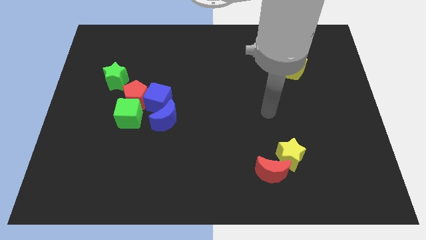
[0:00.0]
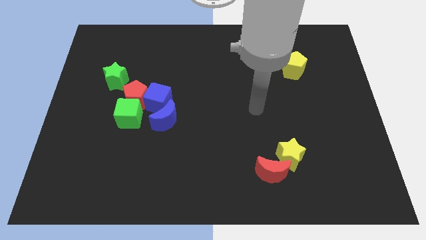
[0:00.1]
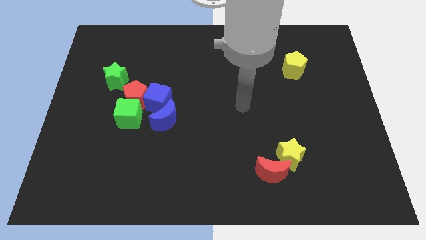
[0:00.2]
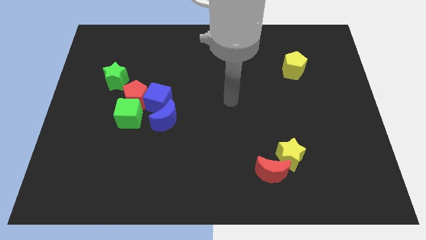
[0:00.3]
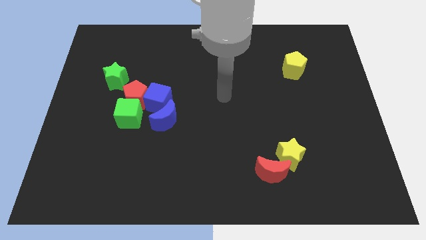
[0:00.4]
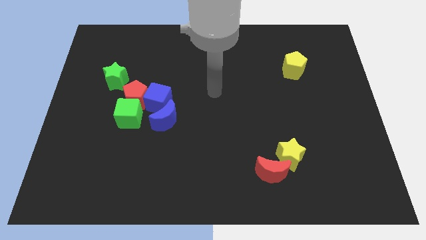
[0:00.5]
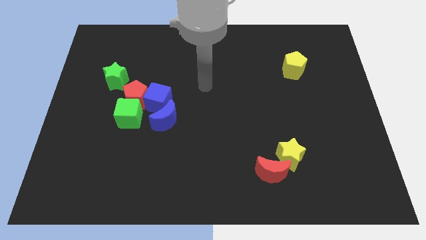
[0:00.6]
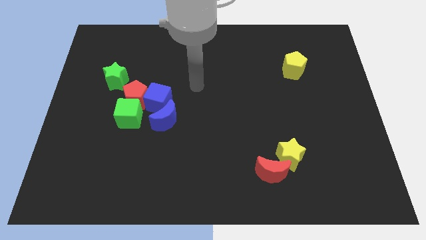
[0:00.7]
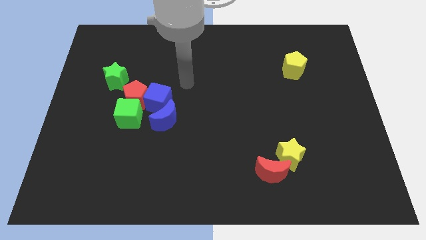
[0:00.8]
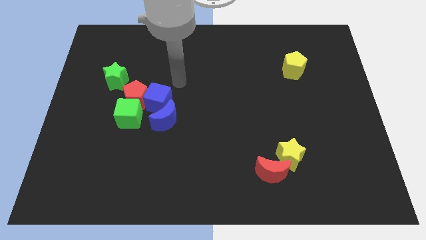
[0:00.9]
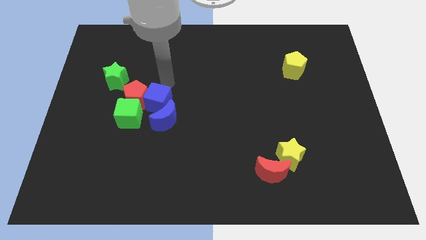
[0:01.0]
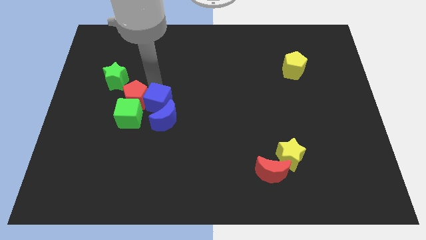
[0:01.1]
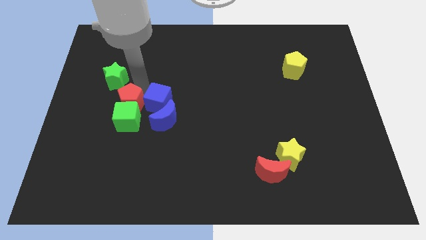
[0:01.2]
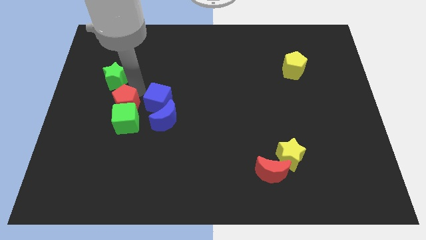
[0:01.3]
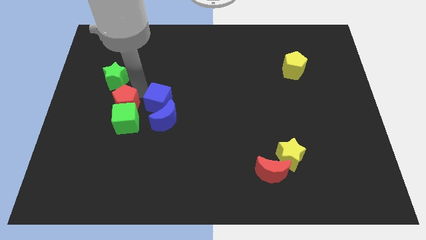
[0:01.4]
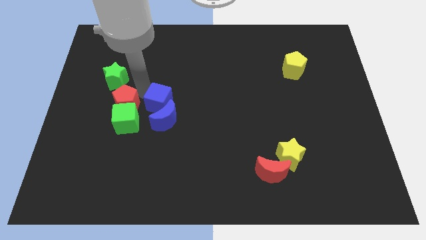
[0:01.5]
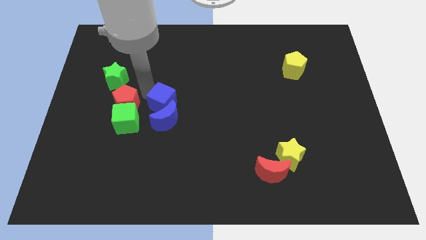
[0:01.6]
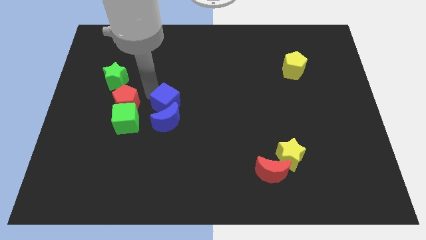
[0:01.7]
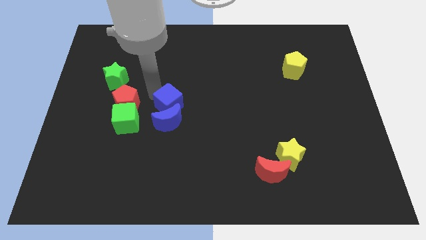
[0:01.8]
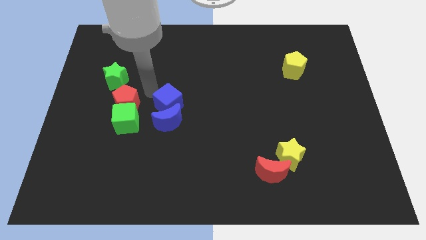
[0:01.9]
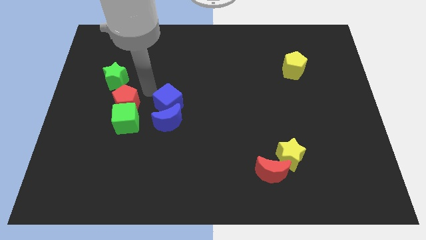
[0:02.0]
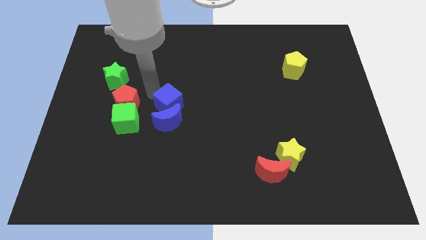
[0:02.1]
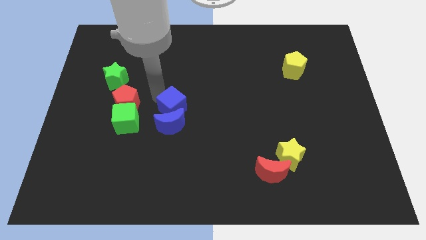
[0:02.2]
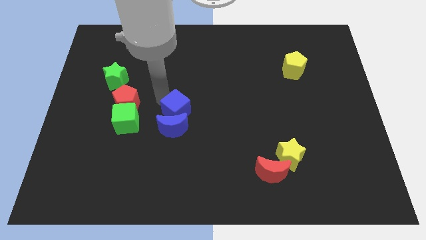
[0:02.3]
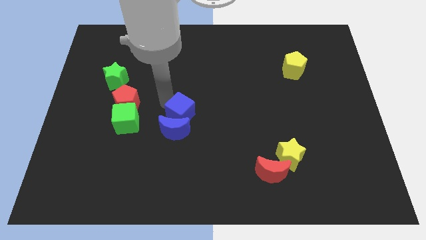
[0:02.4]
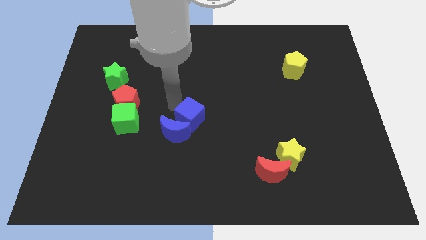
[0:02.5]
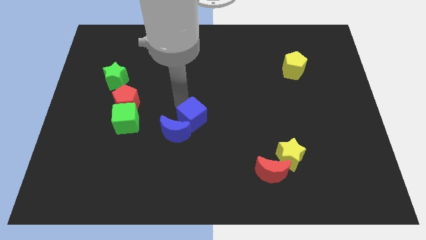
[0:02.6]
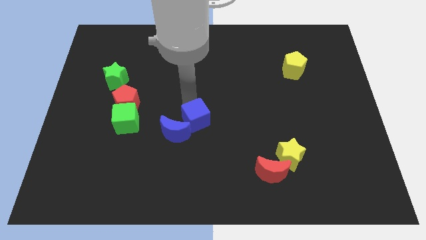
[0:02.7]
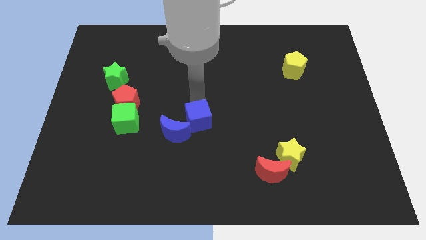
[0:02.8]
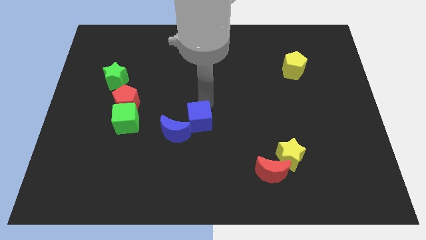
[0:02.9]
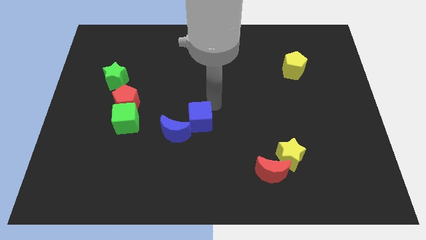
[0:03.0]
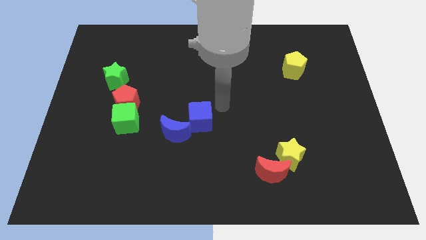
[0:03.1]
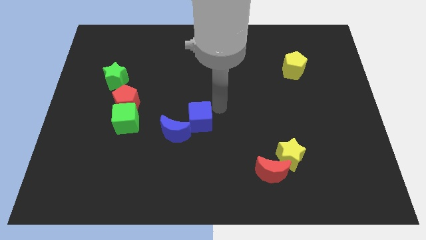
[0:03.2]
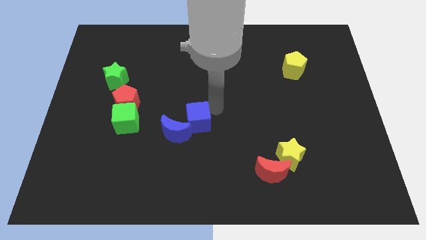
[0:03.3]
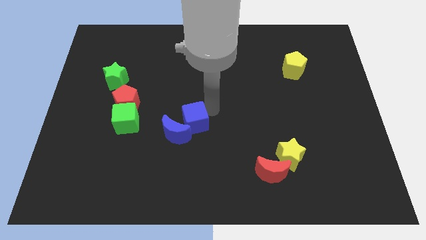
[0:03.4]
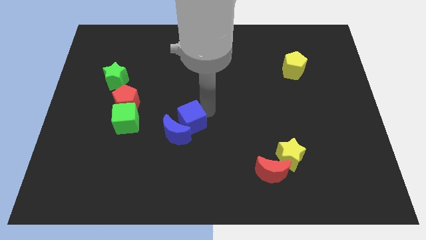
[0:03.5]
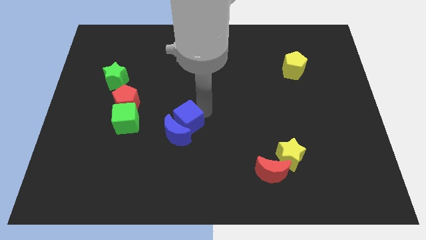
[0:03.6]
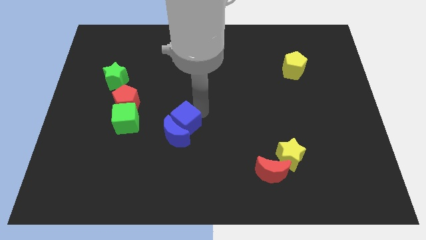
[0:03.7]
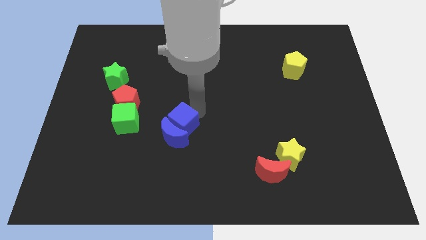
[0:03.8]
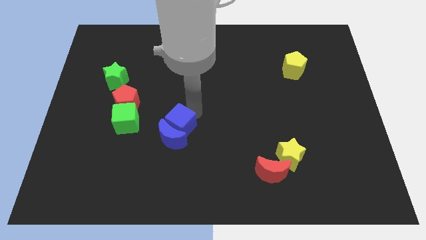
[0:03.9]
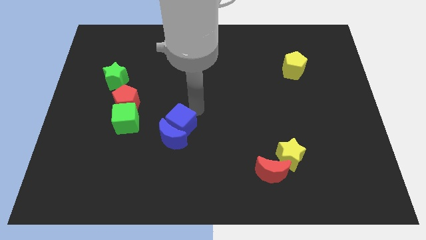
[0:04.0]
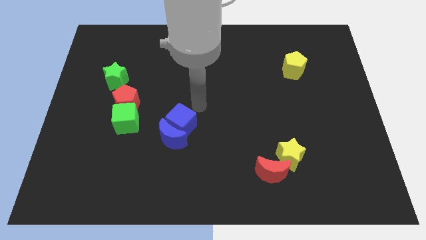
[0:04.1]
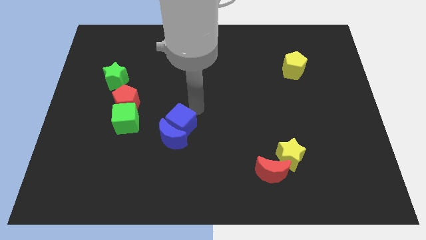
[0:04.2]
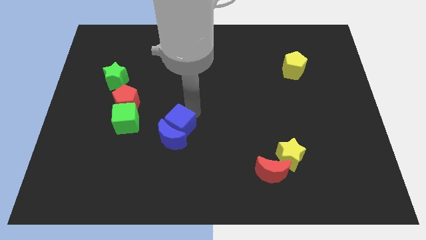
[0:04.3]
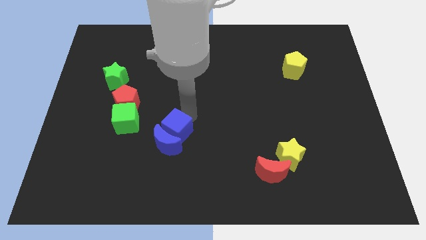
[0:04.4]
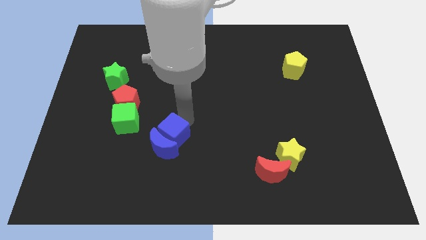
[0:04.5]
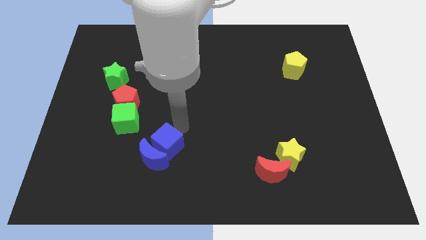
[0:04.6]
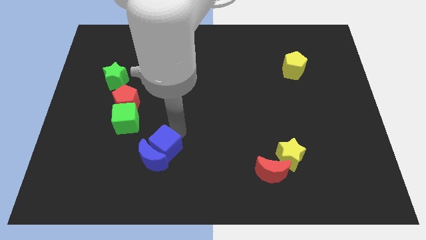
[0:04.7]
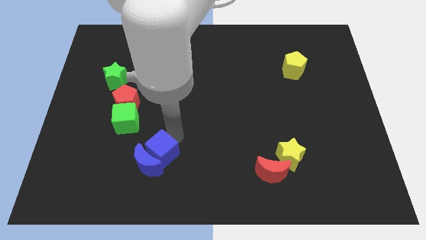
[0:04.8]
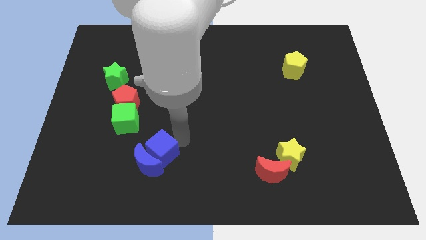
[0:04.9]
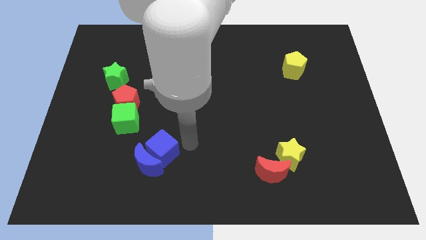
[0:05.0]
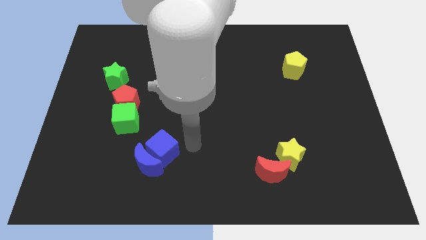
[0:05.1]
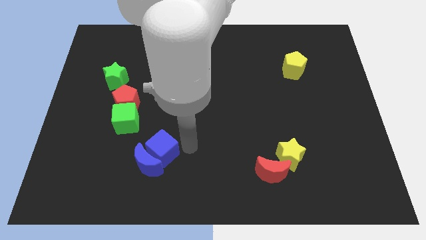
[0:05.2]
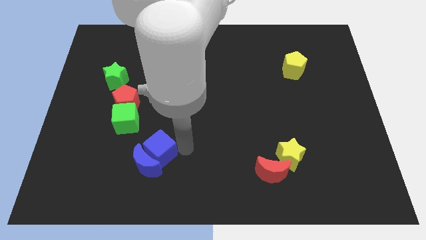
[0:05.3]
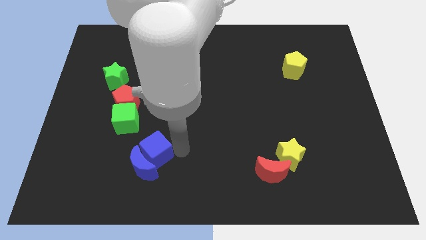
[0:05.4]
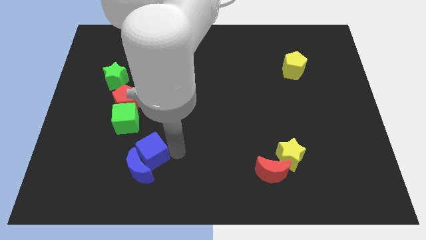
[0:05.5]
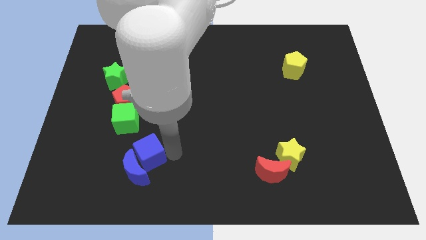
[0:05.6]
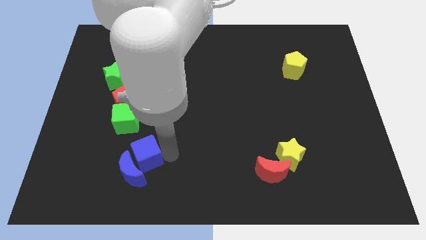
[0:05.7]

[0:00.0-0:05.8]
push the blue cube downwards and then left somewhat

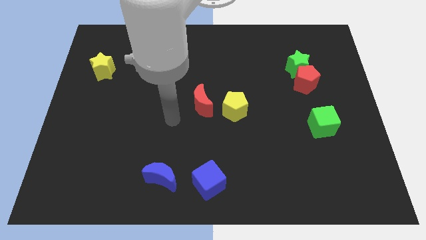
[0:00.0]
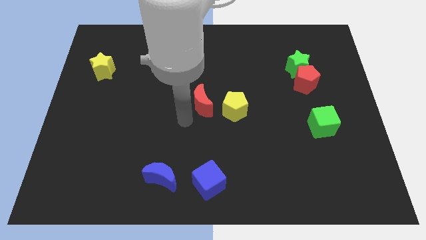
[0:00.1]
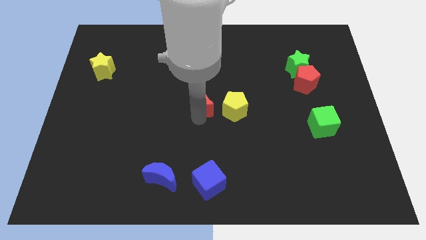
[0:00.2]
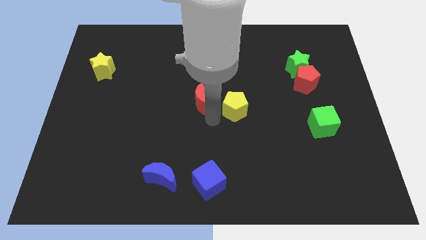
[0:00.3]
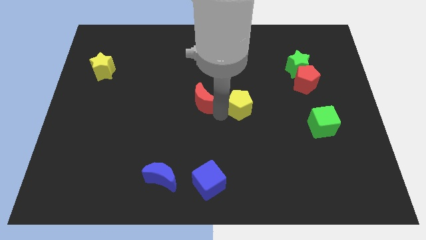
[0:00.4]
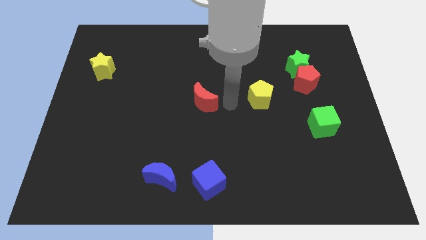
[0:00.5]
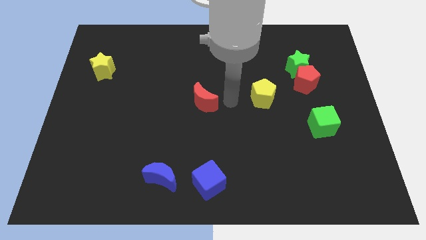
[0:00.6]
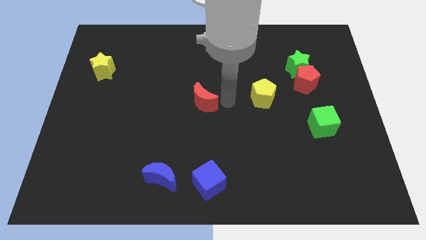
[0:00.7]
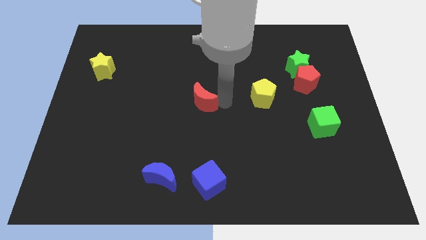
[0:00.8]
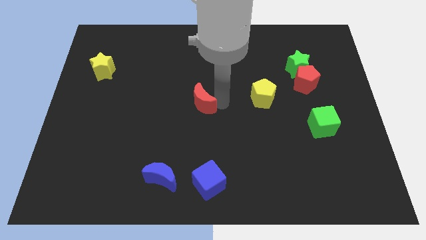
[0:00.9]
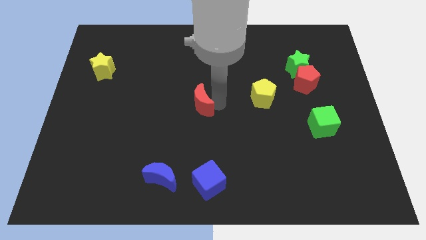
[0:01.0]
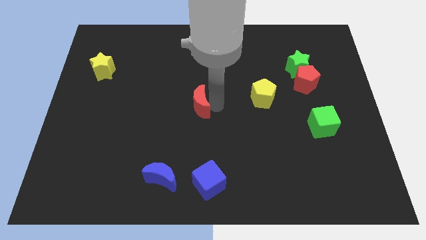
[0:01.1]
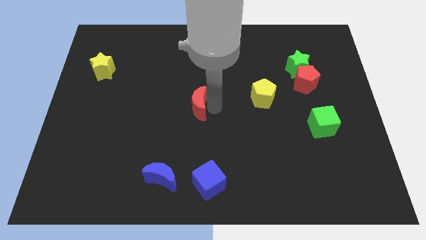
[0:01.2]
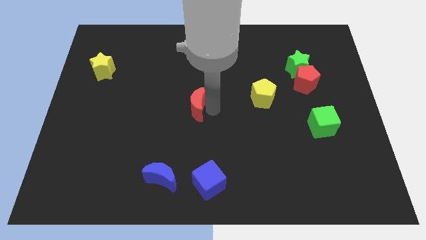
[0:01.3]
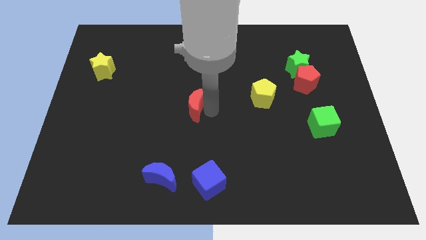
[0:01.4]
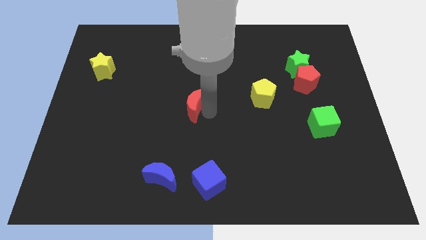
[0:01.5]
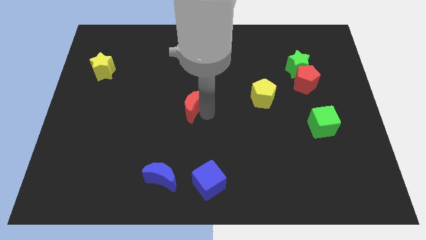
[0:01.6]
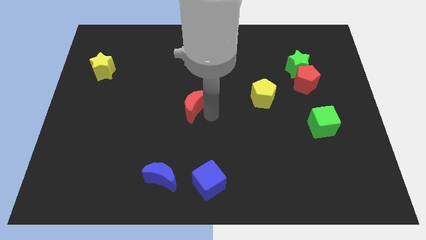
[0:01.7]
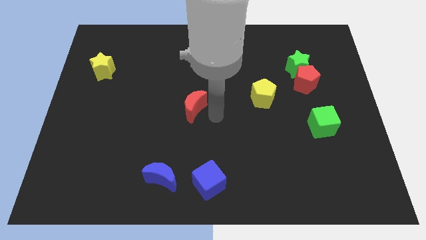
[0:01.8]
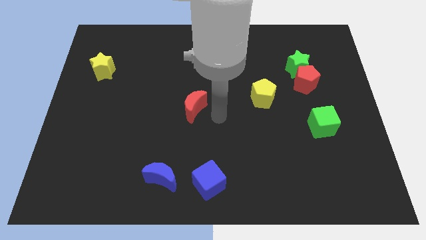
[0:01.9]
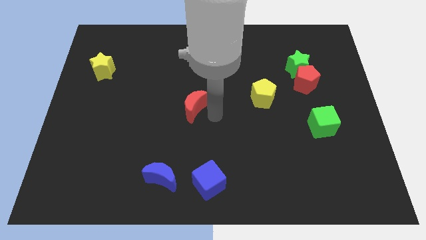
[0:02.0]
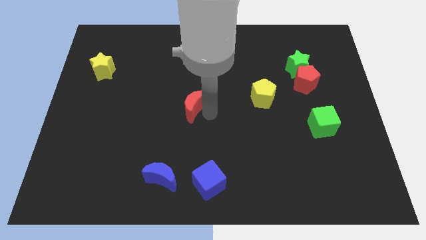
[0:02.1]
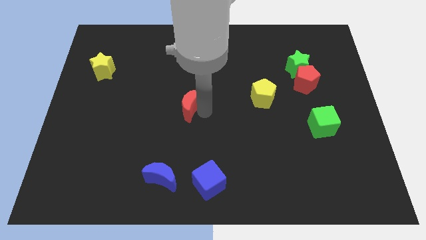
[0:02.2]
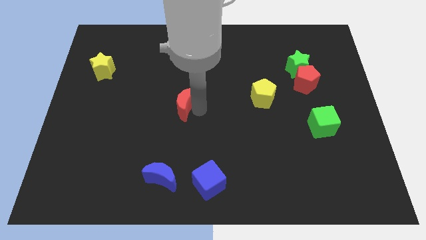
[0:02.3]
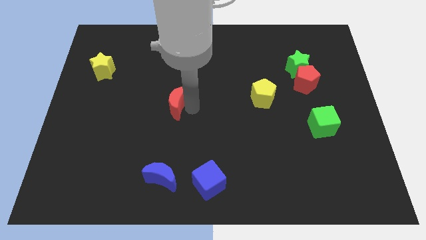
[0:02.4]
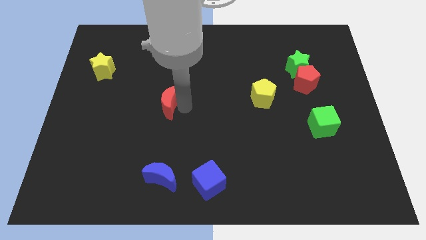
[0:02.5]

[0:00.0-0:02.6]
move the red moon left somewhat
